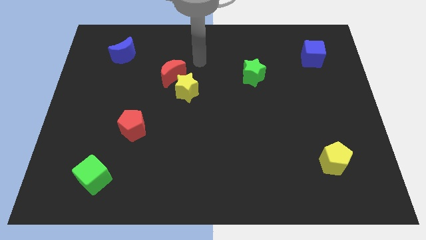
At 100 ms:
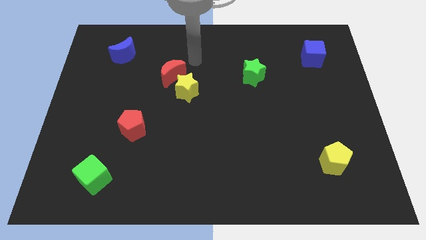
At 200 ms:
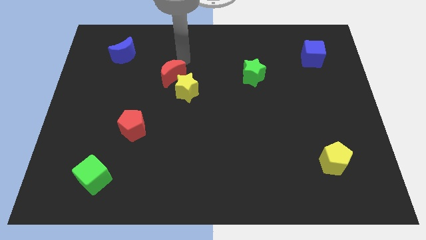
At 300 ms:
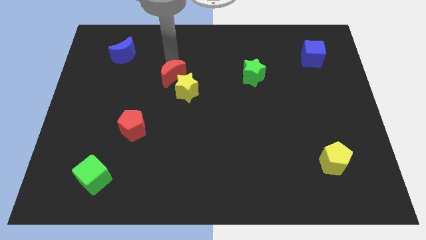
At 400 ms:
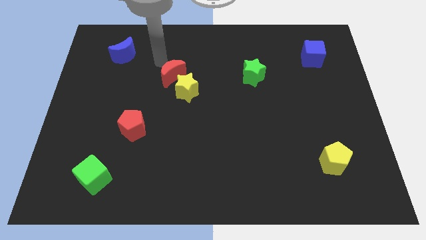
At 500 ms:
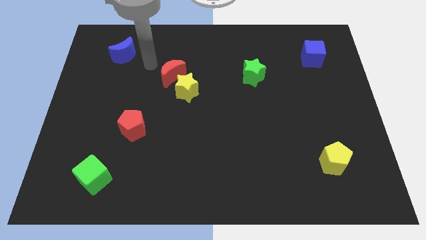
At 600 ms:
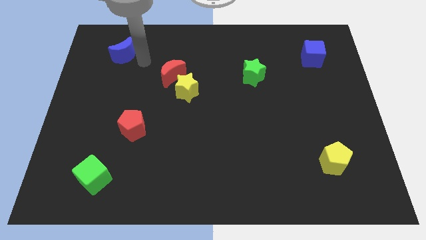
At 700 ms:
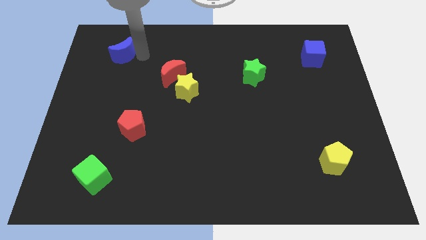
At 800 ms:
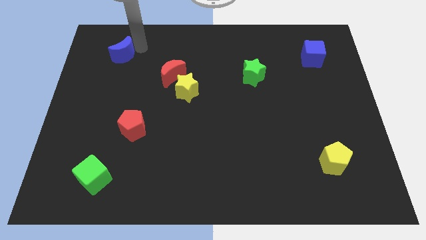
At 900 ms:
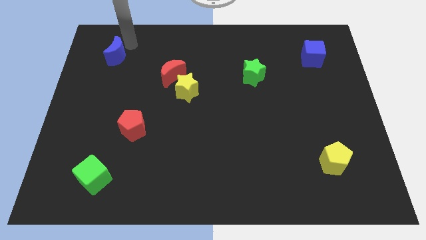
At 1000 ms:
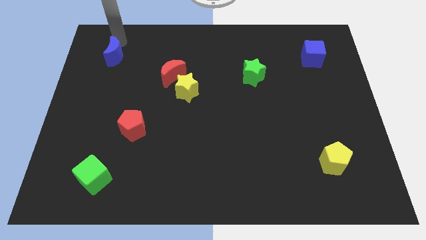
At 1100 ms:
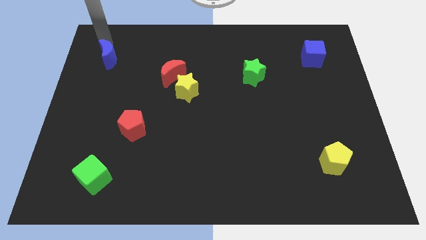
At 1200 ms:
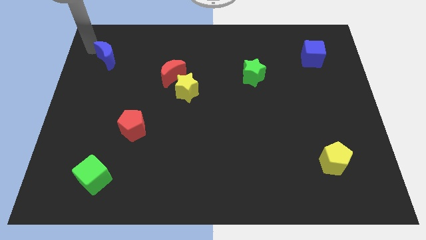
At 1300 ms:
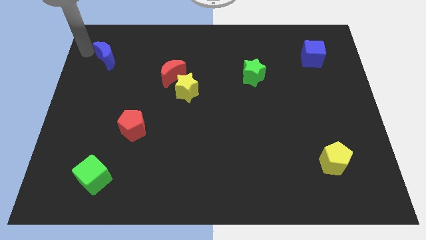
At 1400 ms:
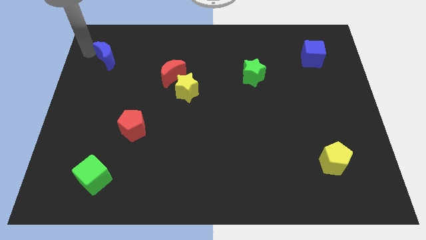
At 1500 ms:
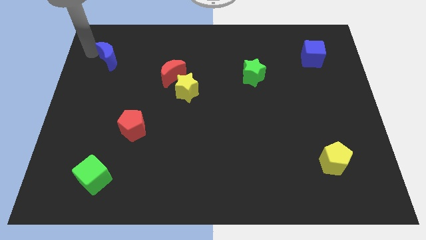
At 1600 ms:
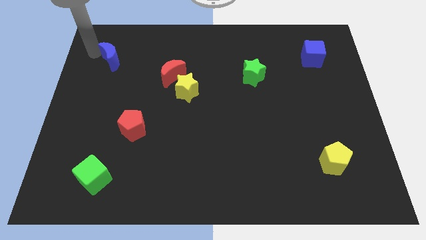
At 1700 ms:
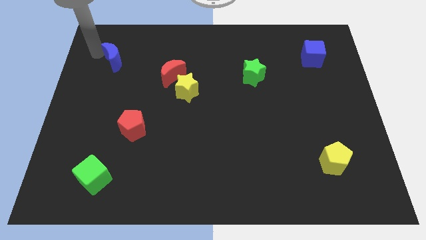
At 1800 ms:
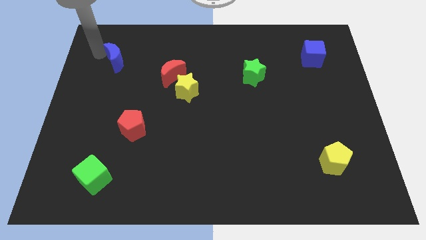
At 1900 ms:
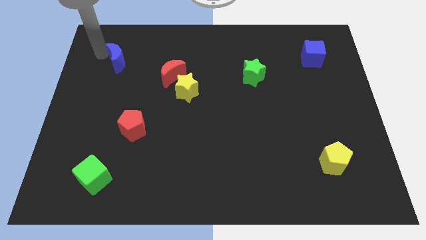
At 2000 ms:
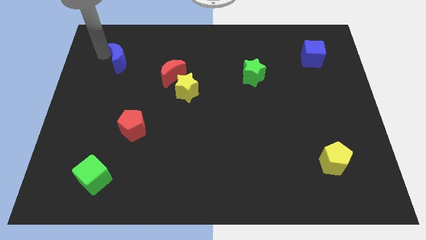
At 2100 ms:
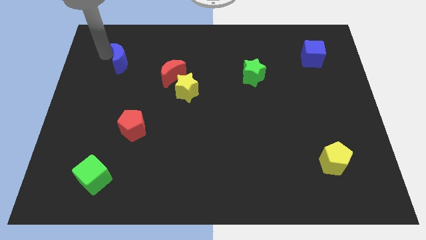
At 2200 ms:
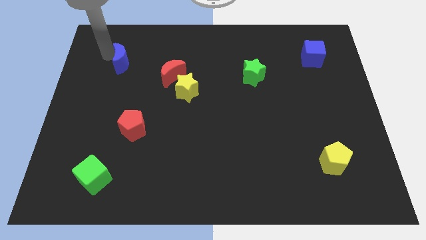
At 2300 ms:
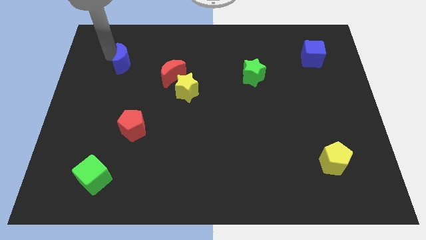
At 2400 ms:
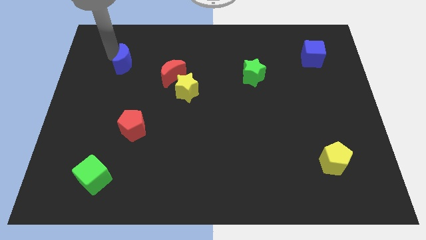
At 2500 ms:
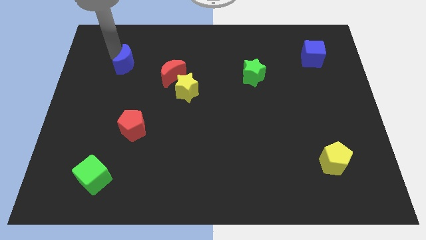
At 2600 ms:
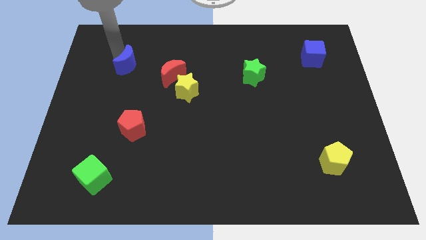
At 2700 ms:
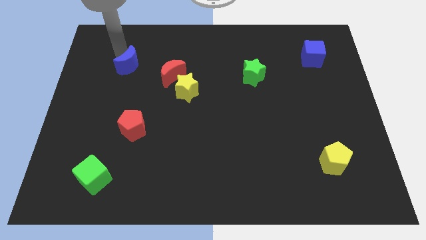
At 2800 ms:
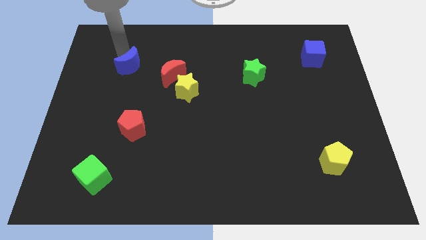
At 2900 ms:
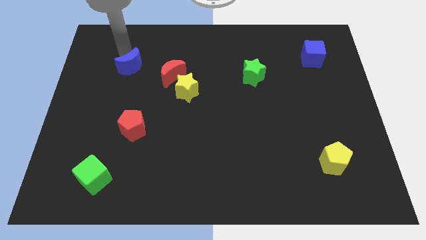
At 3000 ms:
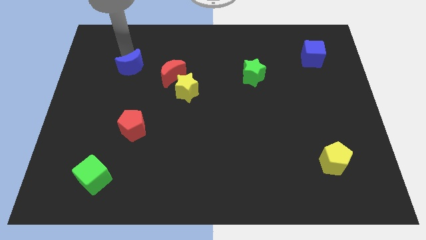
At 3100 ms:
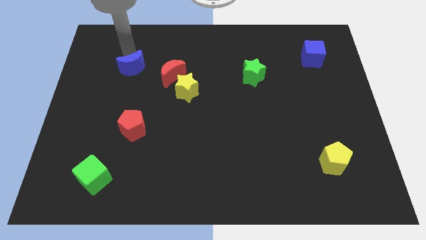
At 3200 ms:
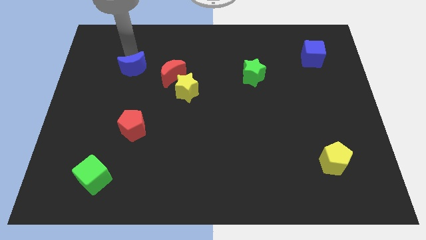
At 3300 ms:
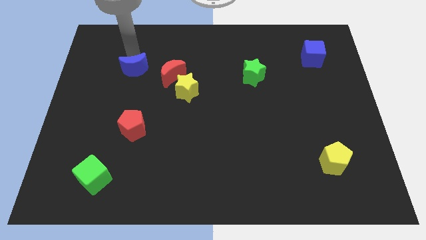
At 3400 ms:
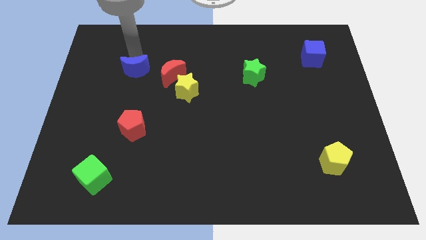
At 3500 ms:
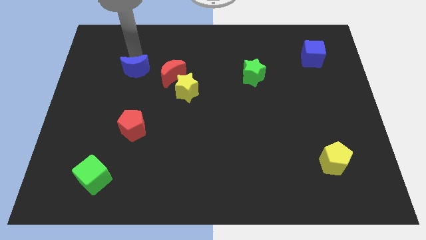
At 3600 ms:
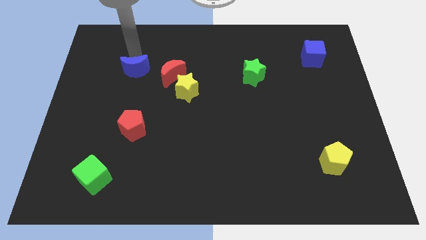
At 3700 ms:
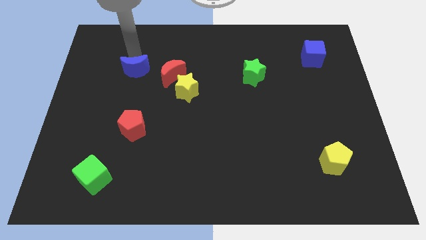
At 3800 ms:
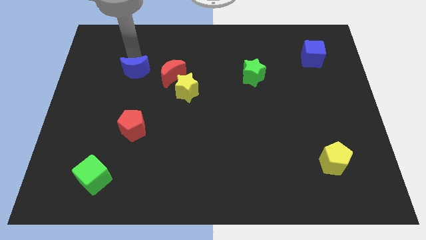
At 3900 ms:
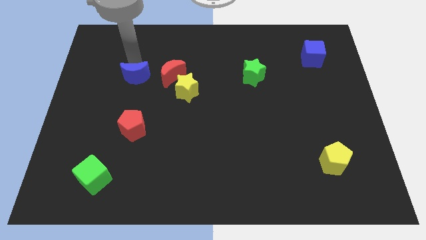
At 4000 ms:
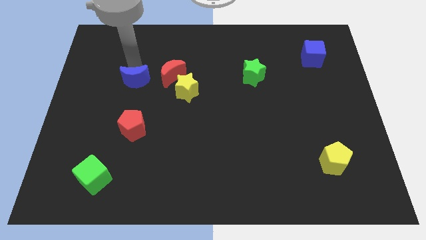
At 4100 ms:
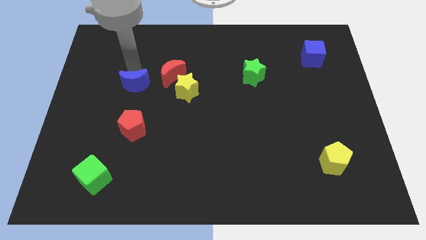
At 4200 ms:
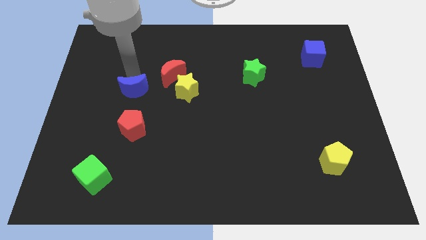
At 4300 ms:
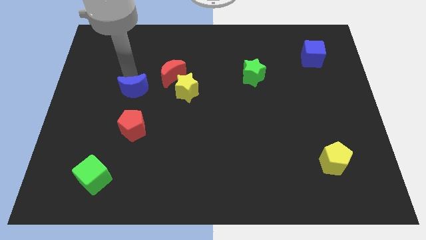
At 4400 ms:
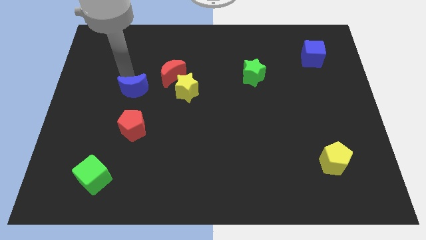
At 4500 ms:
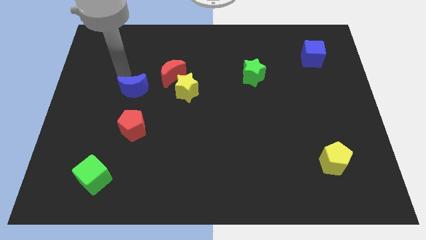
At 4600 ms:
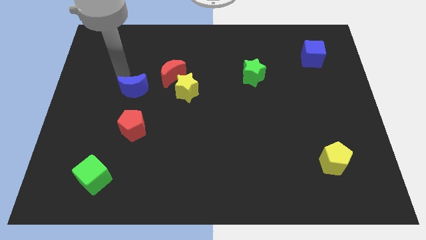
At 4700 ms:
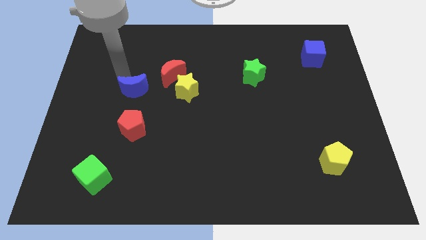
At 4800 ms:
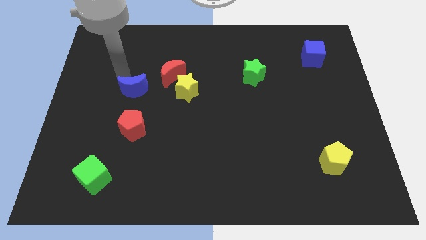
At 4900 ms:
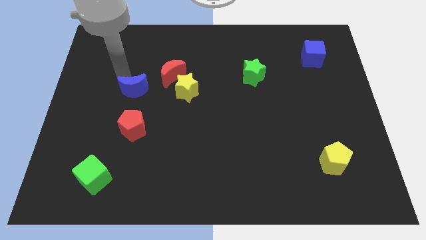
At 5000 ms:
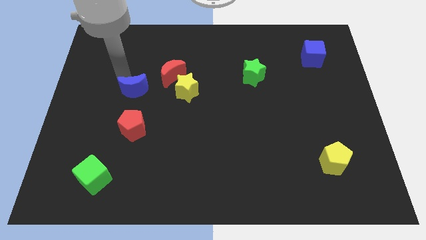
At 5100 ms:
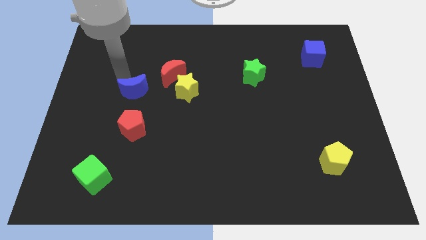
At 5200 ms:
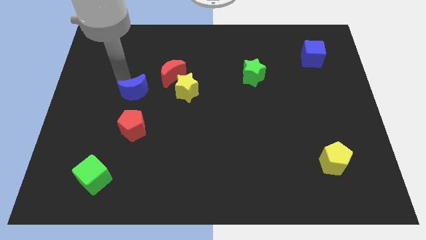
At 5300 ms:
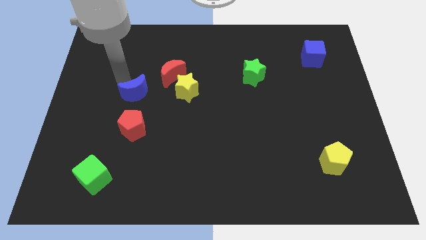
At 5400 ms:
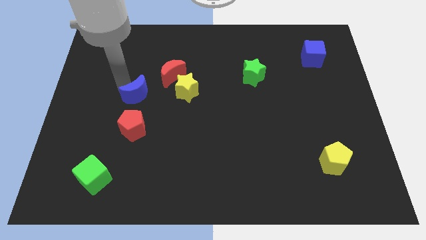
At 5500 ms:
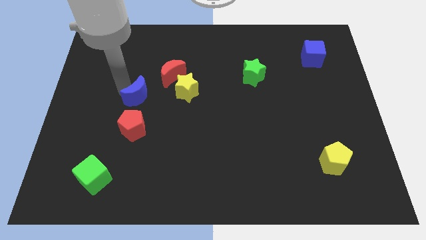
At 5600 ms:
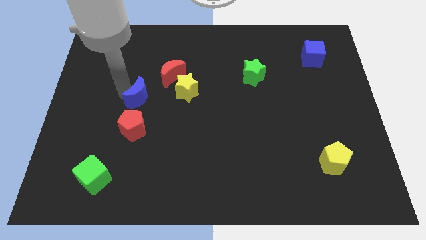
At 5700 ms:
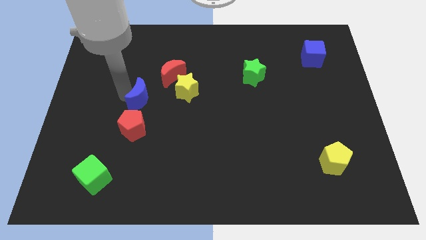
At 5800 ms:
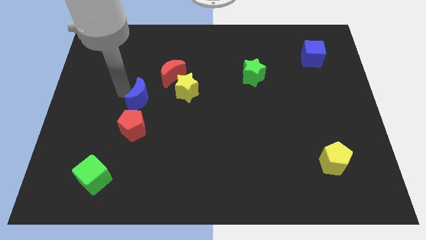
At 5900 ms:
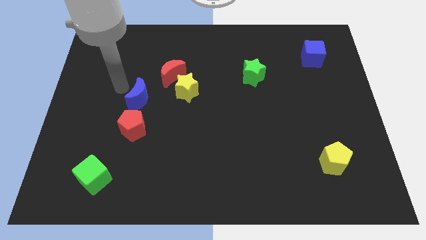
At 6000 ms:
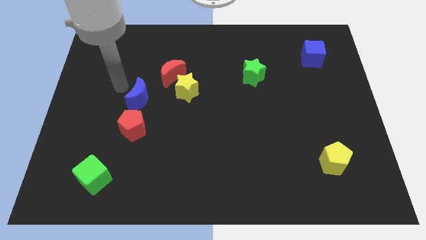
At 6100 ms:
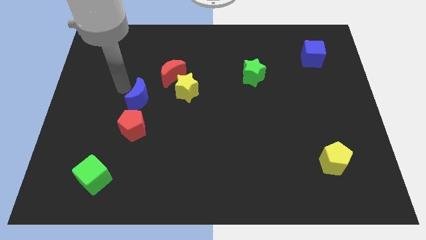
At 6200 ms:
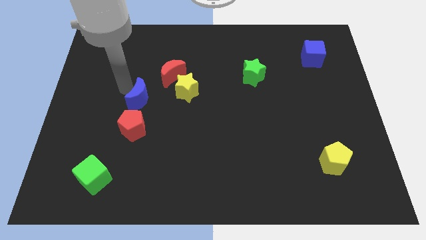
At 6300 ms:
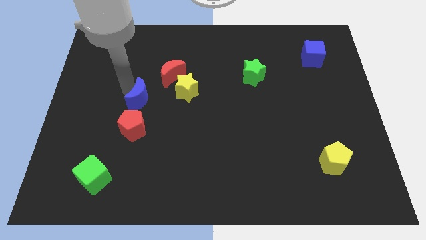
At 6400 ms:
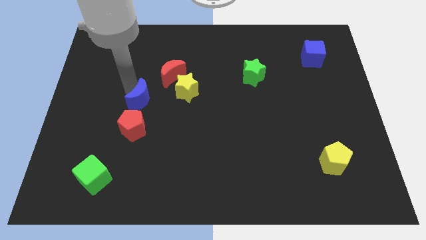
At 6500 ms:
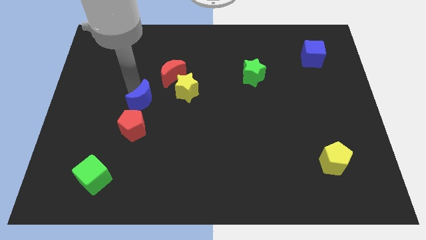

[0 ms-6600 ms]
slide the blue moon to the top right of the red pentagon
